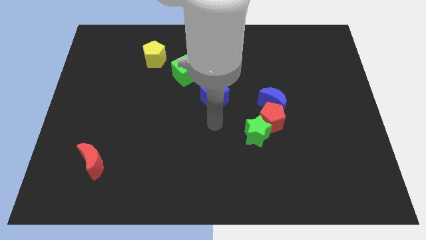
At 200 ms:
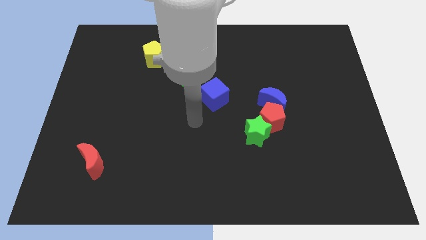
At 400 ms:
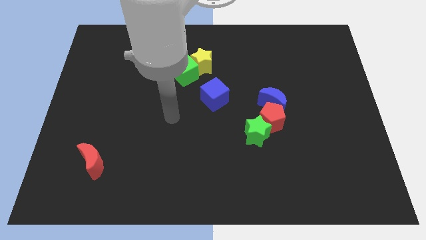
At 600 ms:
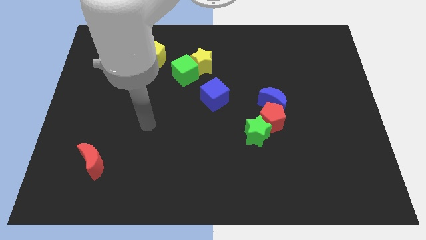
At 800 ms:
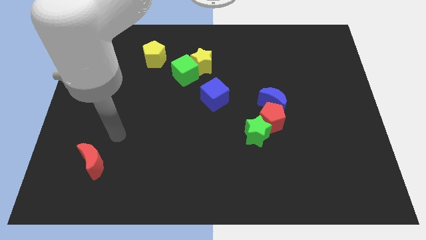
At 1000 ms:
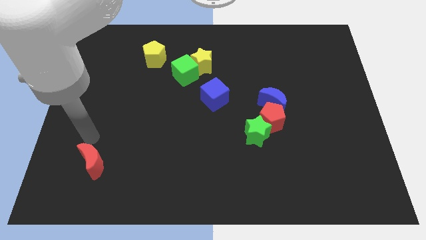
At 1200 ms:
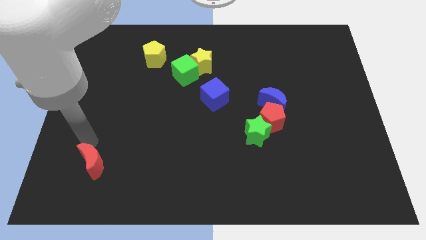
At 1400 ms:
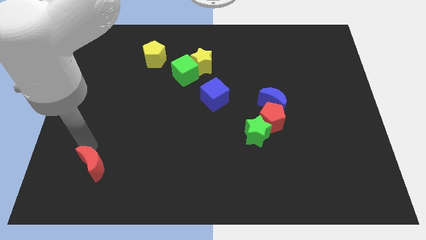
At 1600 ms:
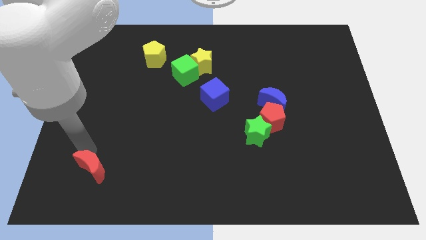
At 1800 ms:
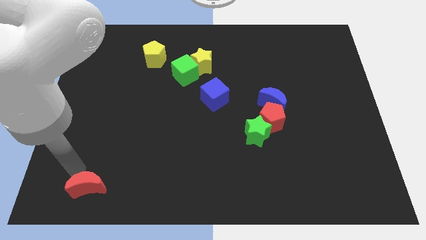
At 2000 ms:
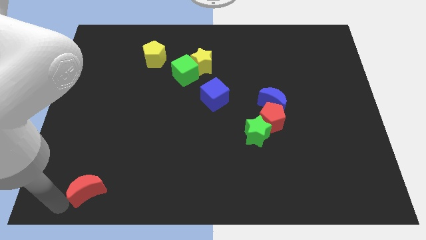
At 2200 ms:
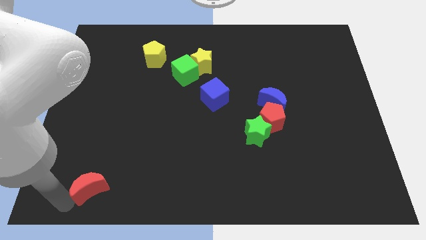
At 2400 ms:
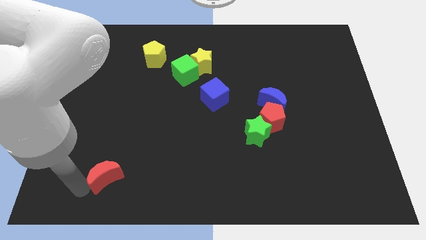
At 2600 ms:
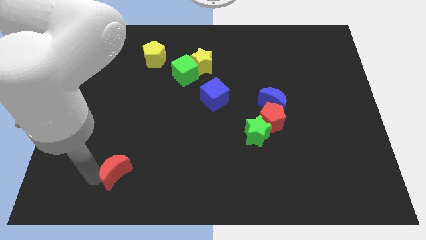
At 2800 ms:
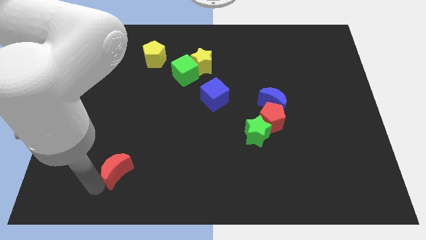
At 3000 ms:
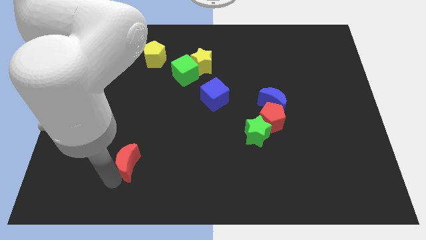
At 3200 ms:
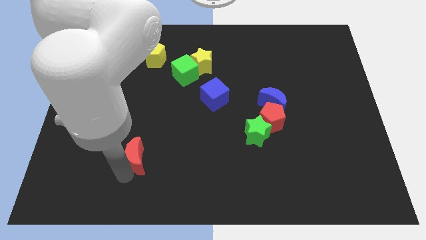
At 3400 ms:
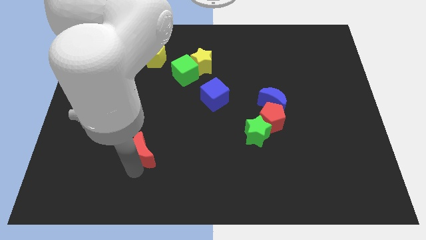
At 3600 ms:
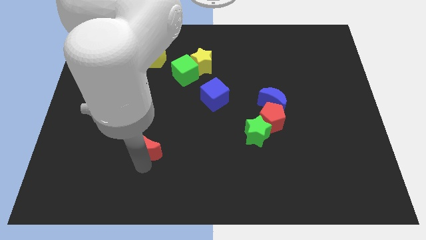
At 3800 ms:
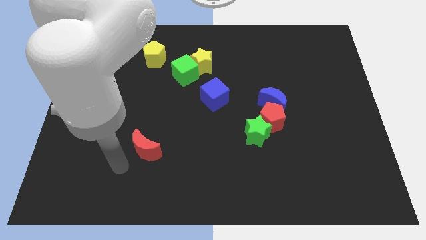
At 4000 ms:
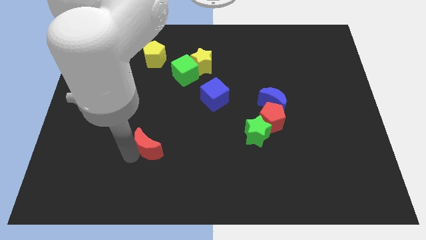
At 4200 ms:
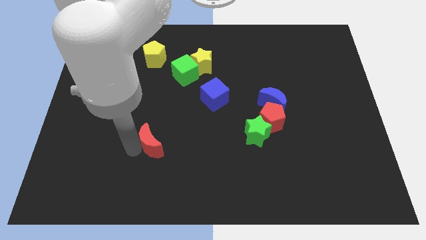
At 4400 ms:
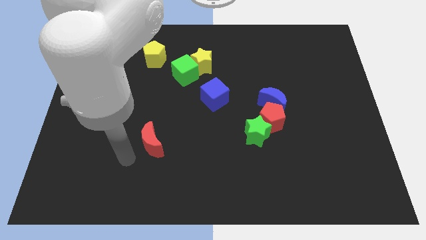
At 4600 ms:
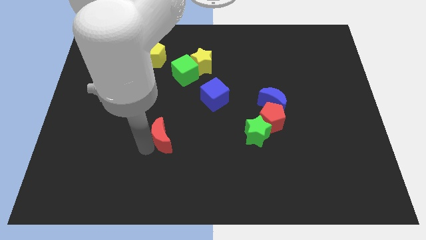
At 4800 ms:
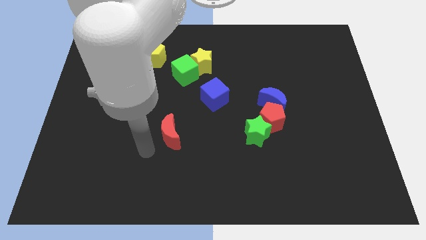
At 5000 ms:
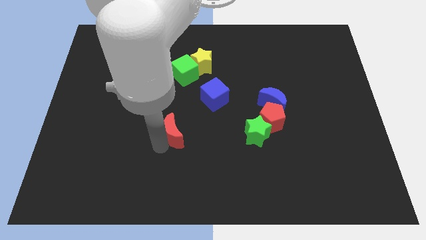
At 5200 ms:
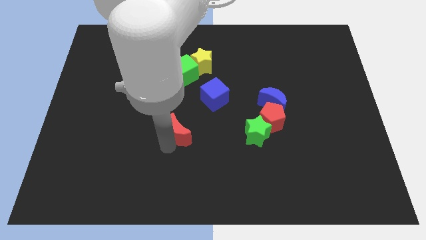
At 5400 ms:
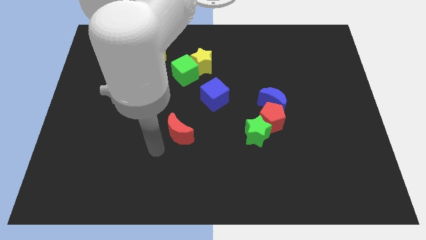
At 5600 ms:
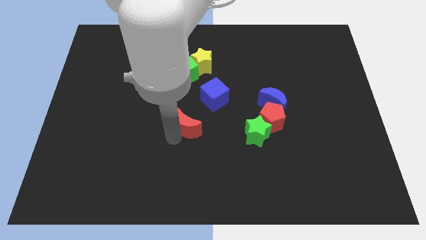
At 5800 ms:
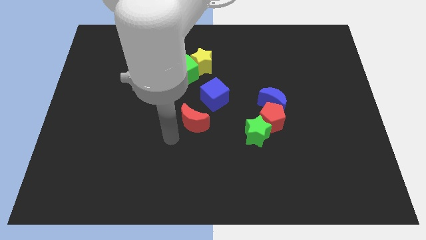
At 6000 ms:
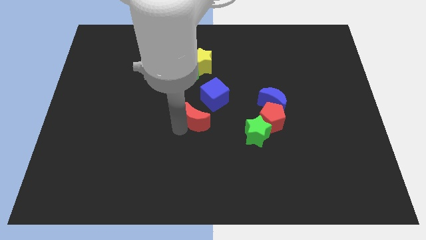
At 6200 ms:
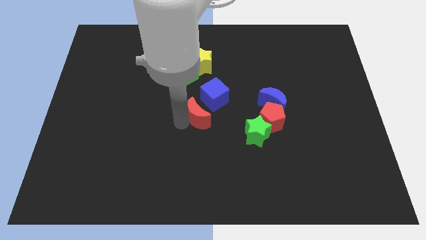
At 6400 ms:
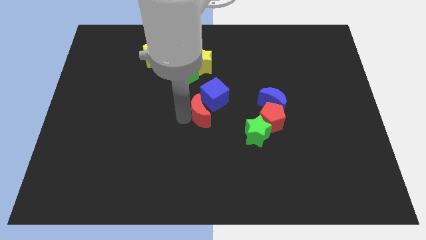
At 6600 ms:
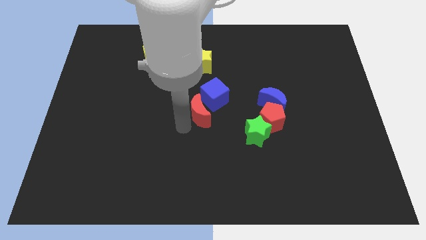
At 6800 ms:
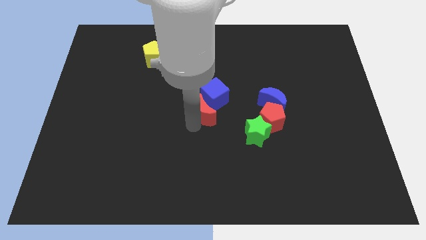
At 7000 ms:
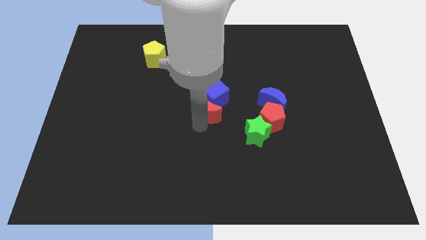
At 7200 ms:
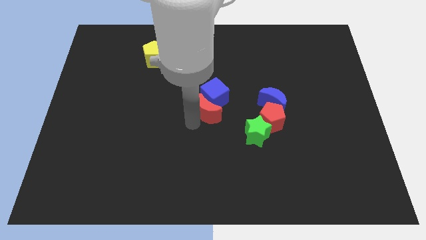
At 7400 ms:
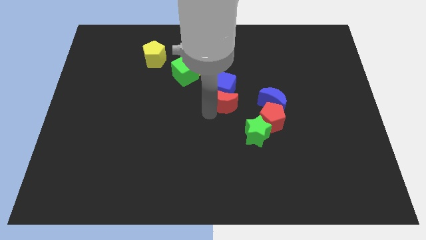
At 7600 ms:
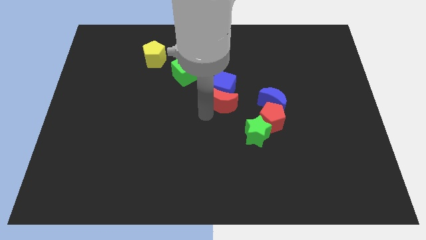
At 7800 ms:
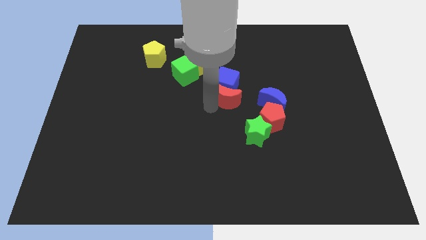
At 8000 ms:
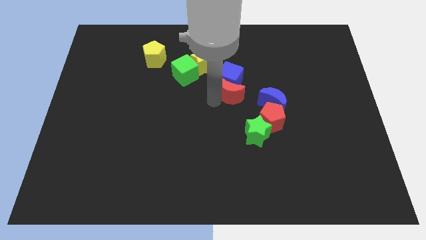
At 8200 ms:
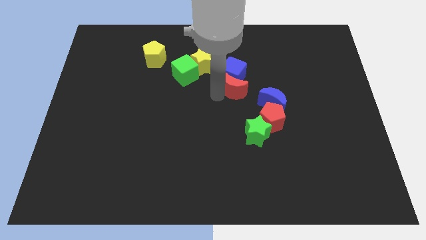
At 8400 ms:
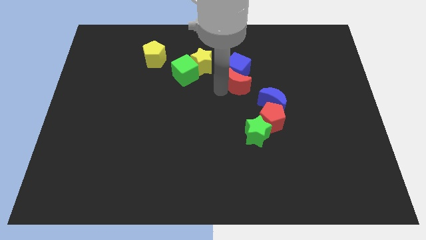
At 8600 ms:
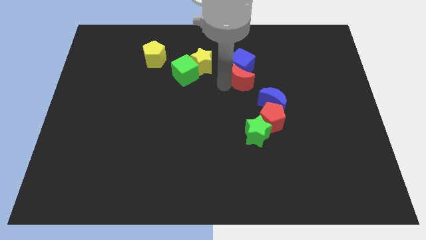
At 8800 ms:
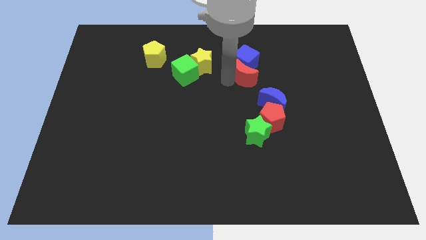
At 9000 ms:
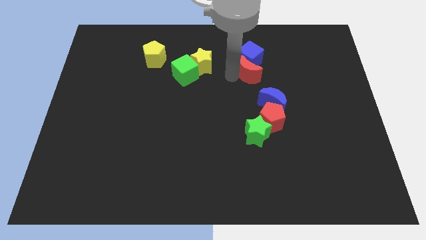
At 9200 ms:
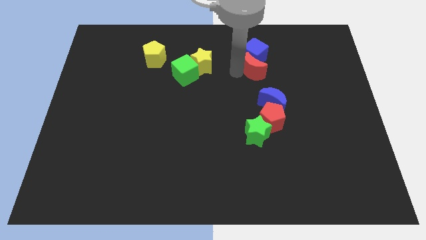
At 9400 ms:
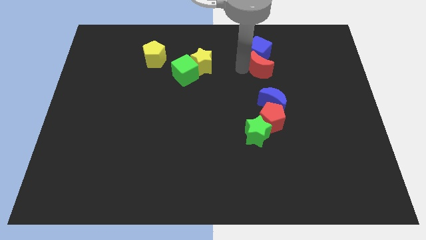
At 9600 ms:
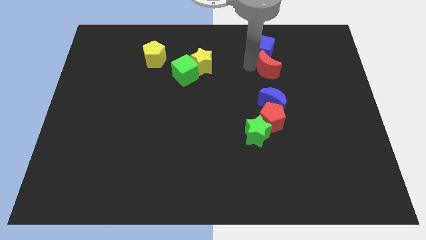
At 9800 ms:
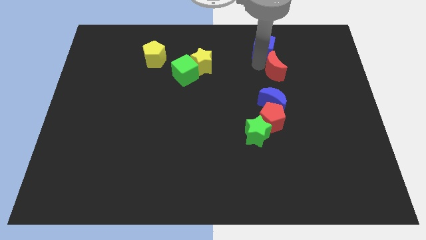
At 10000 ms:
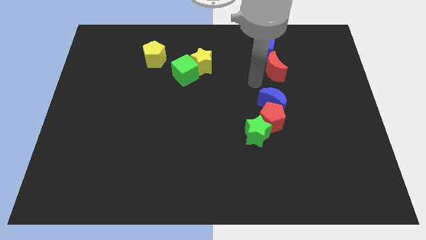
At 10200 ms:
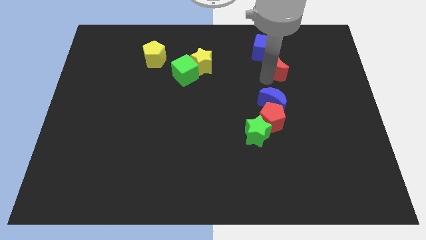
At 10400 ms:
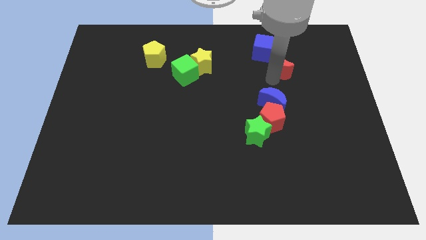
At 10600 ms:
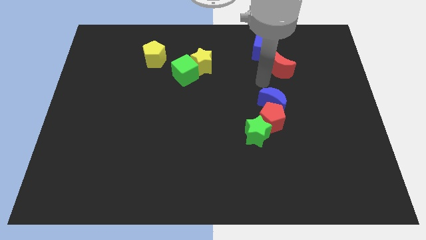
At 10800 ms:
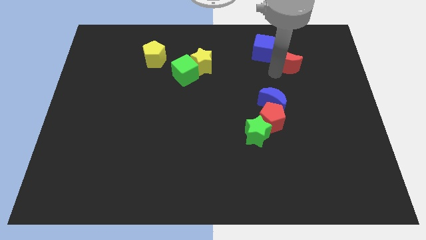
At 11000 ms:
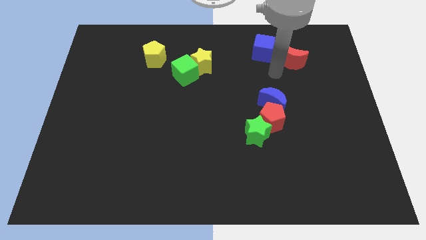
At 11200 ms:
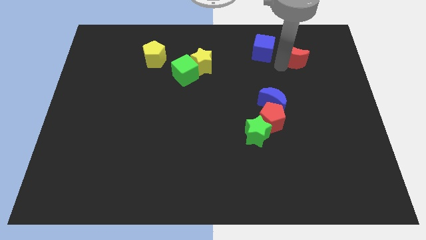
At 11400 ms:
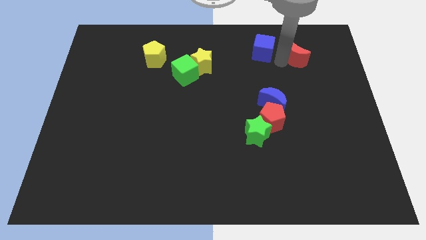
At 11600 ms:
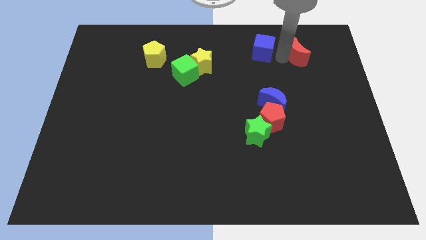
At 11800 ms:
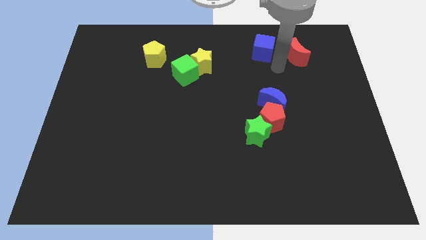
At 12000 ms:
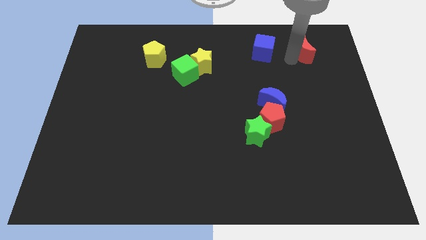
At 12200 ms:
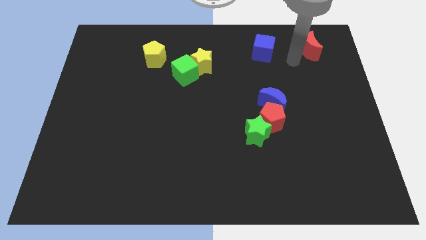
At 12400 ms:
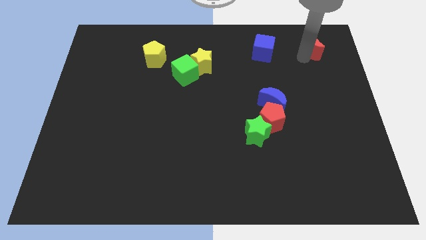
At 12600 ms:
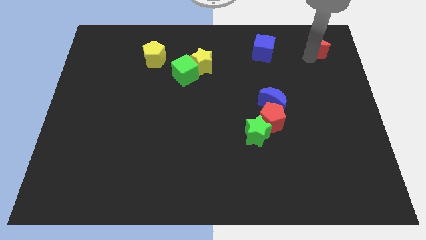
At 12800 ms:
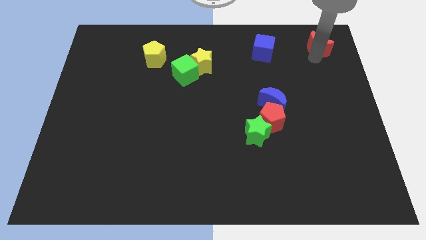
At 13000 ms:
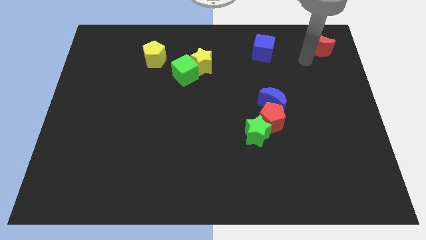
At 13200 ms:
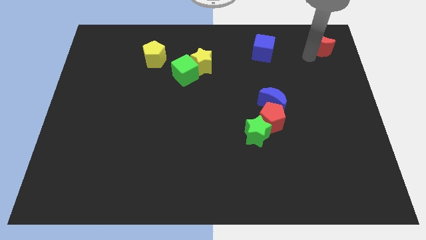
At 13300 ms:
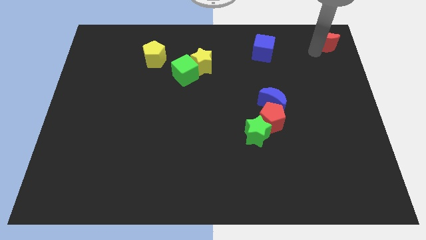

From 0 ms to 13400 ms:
put the red moon to the top right corner
